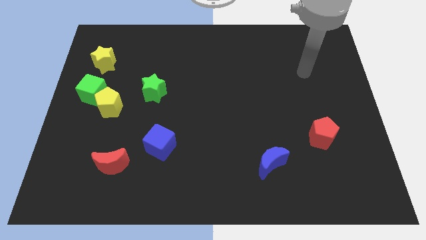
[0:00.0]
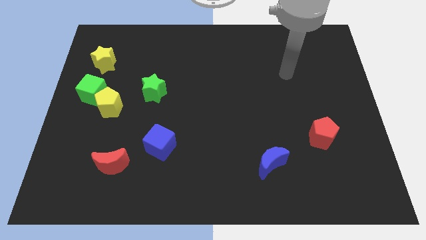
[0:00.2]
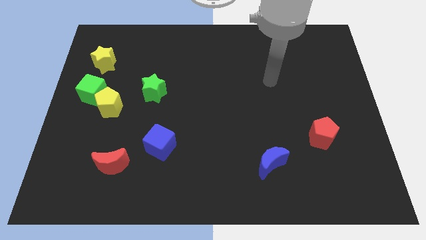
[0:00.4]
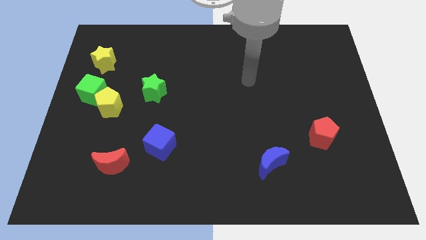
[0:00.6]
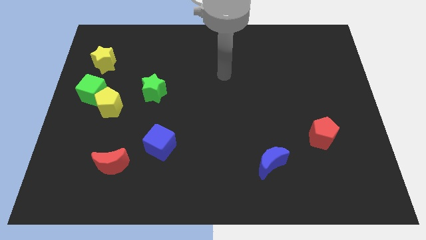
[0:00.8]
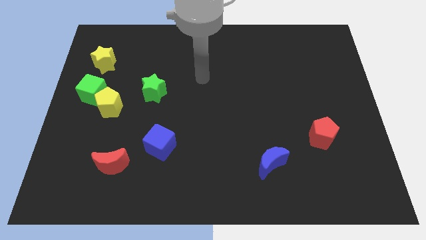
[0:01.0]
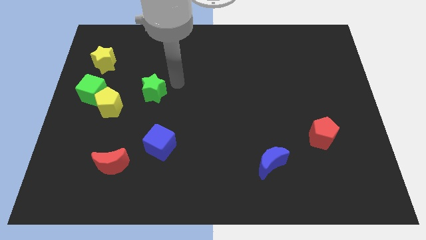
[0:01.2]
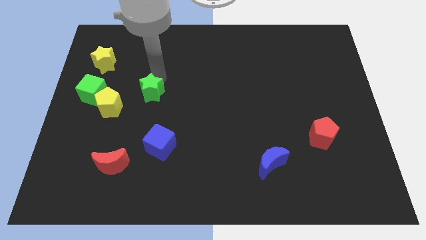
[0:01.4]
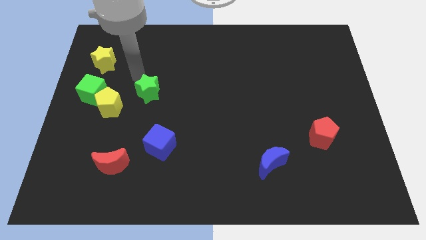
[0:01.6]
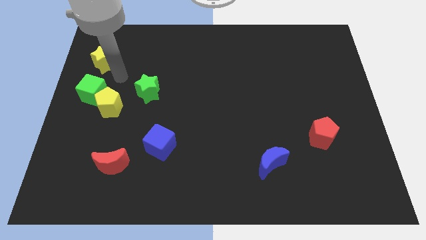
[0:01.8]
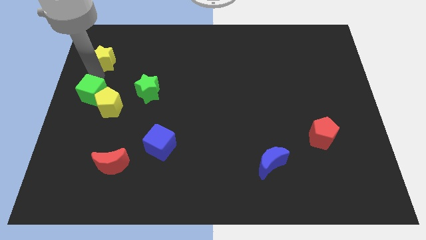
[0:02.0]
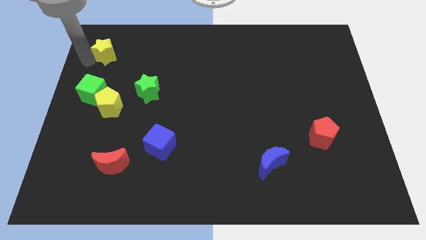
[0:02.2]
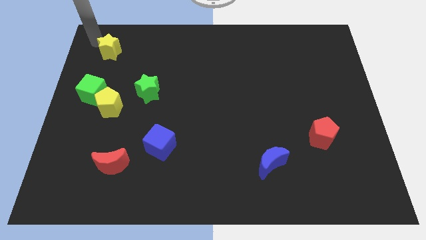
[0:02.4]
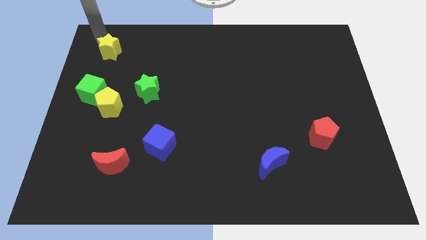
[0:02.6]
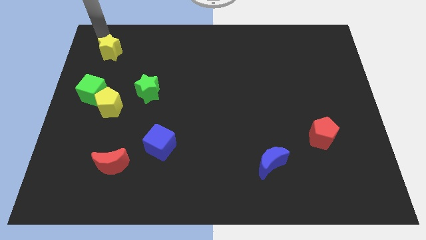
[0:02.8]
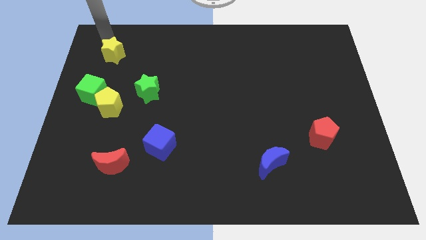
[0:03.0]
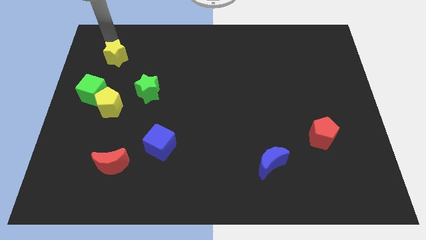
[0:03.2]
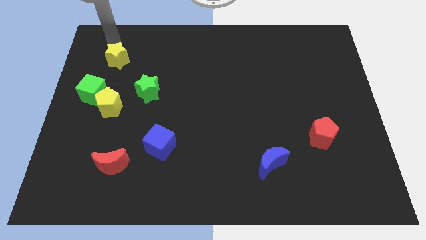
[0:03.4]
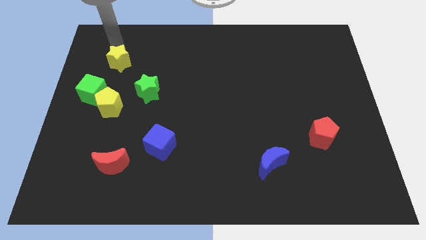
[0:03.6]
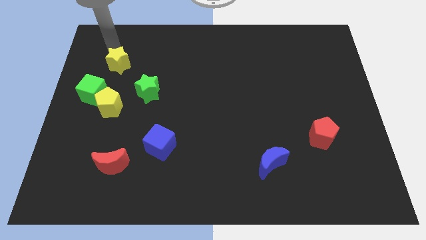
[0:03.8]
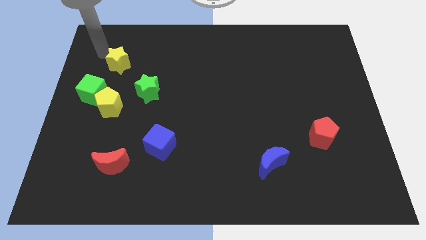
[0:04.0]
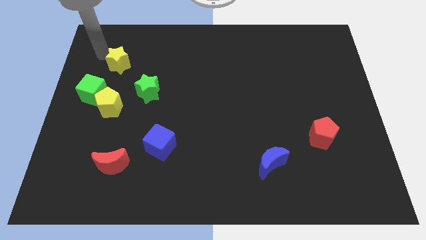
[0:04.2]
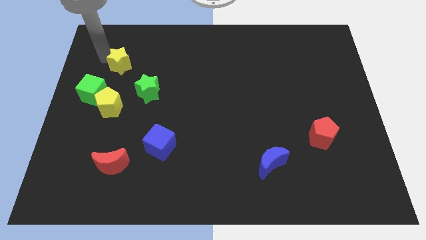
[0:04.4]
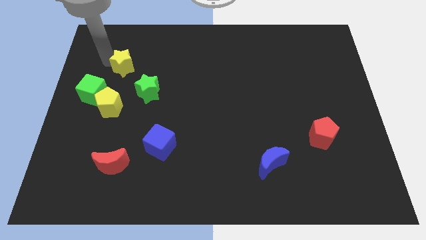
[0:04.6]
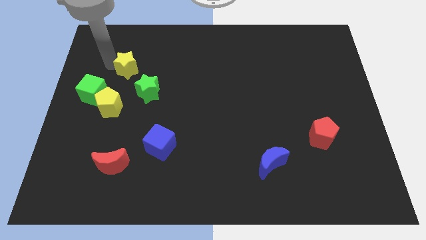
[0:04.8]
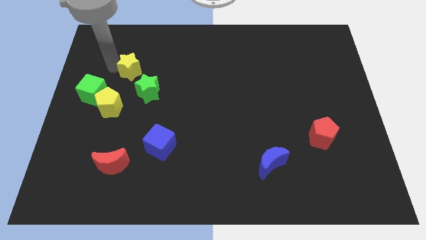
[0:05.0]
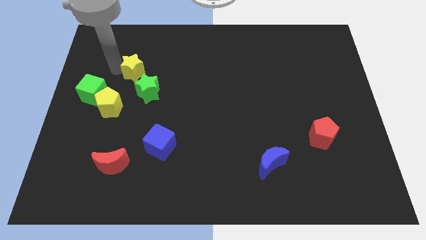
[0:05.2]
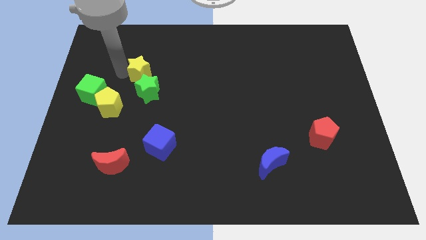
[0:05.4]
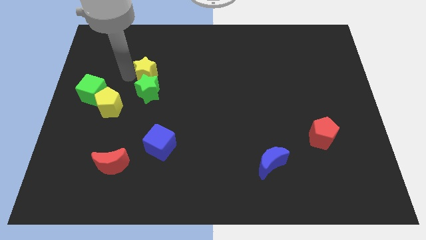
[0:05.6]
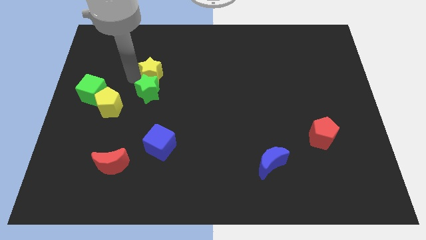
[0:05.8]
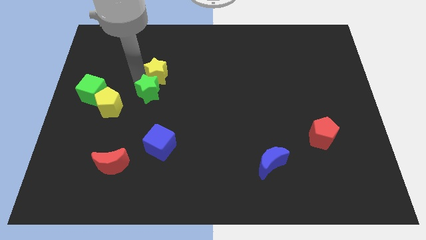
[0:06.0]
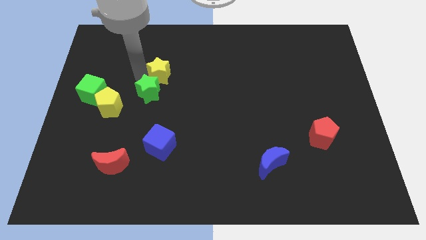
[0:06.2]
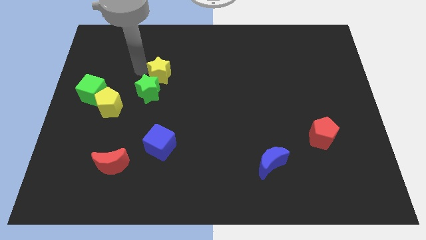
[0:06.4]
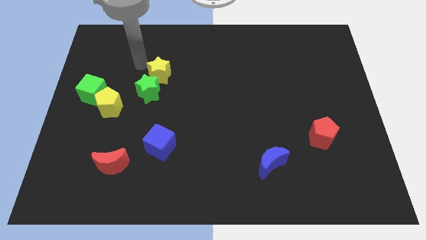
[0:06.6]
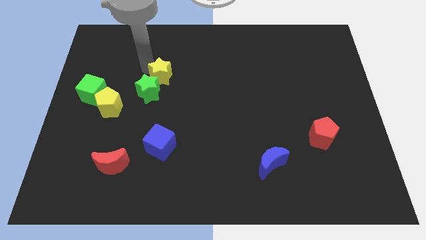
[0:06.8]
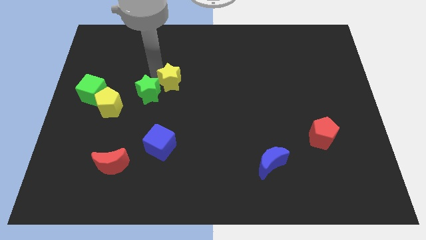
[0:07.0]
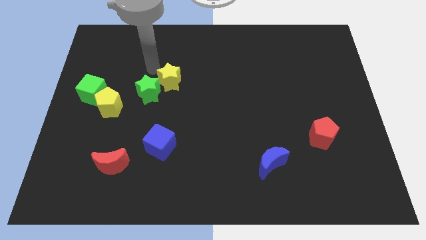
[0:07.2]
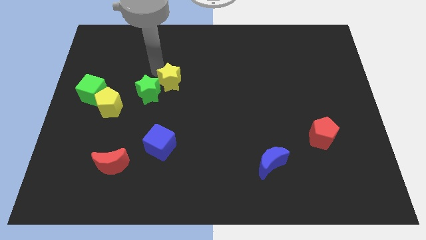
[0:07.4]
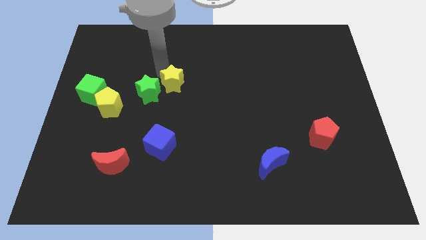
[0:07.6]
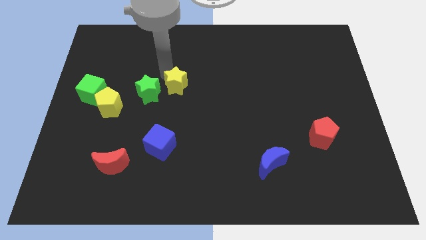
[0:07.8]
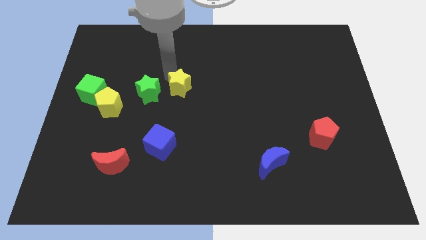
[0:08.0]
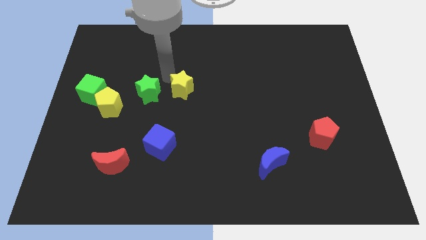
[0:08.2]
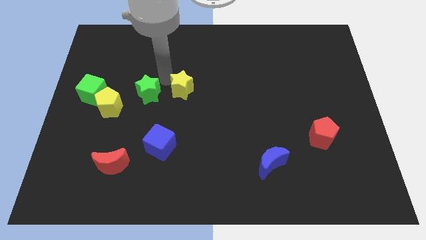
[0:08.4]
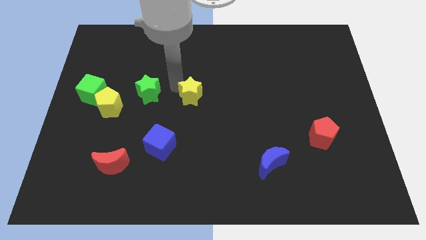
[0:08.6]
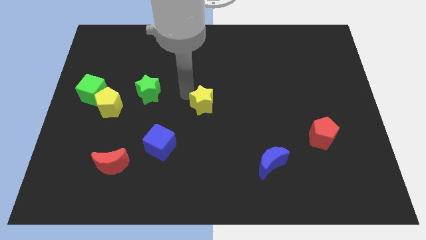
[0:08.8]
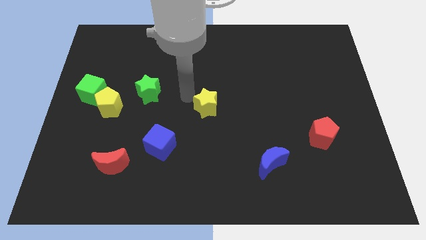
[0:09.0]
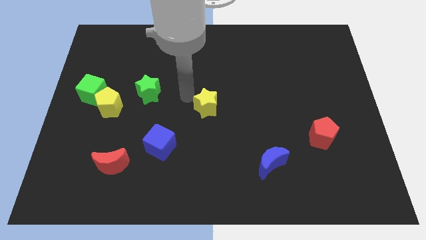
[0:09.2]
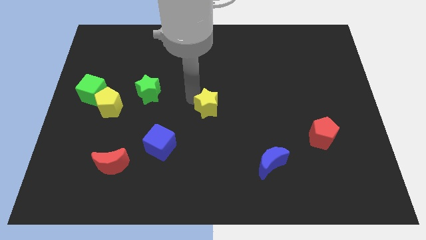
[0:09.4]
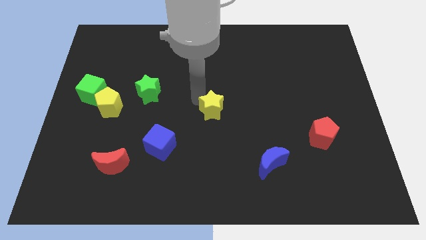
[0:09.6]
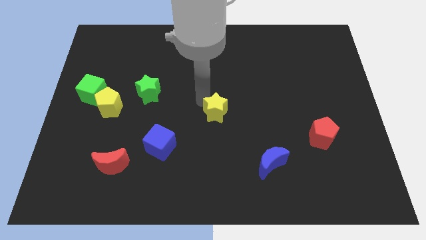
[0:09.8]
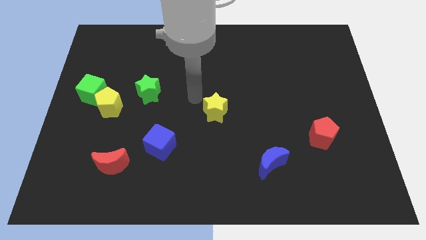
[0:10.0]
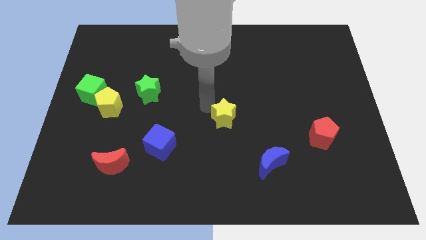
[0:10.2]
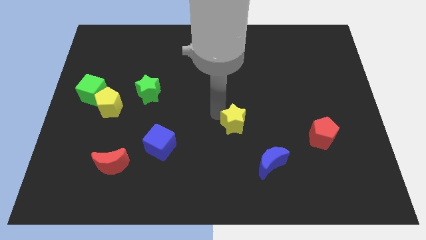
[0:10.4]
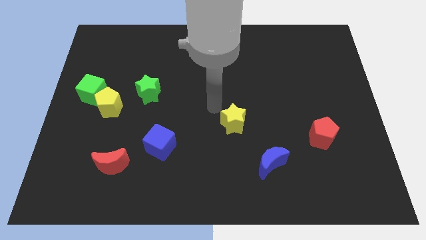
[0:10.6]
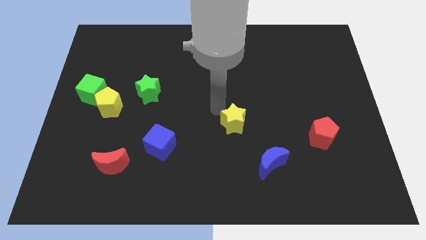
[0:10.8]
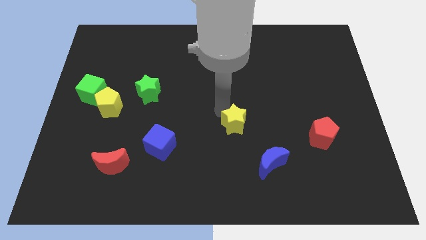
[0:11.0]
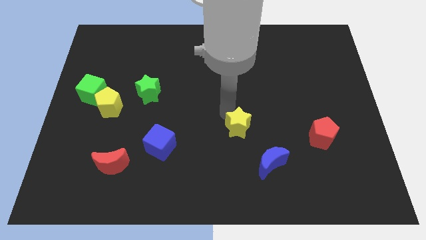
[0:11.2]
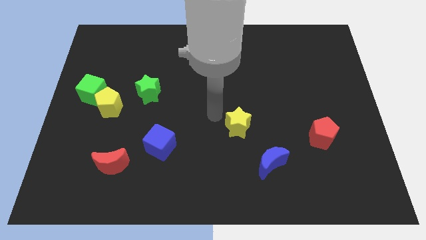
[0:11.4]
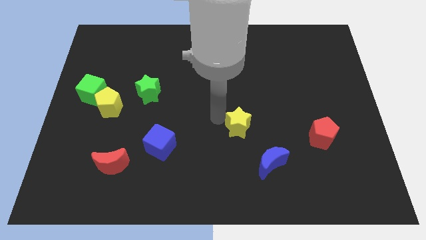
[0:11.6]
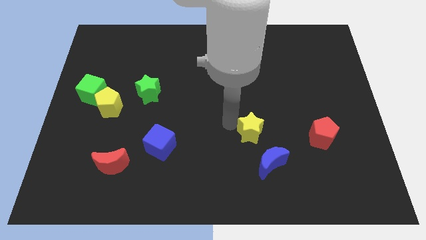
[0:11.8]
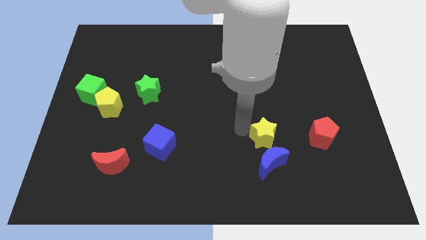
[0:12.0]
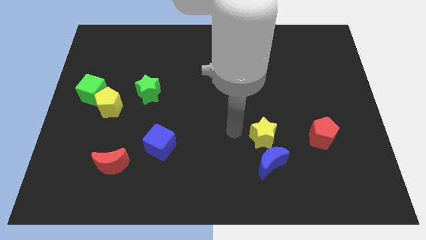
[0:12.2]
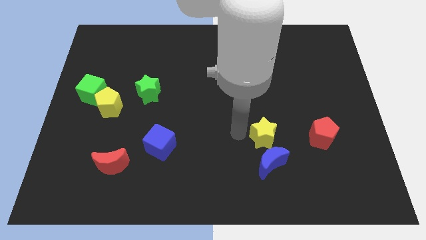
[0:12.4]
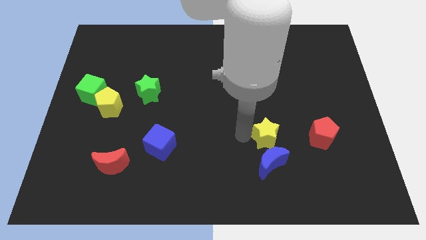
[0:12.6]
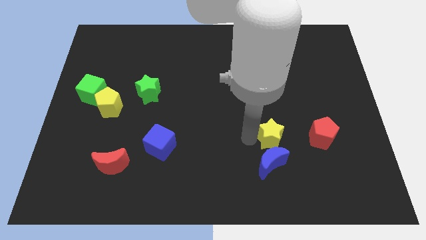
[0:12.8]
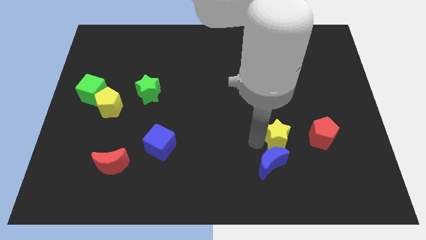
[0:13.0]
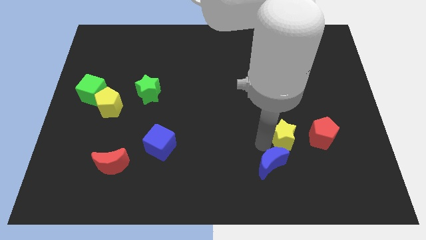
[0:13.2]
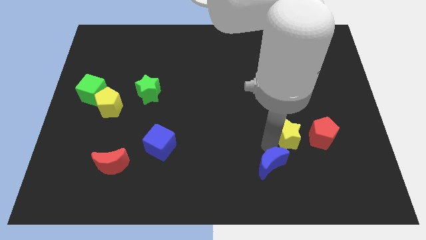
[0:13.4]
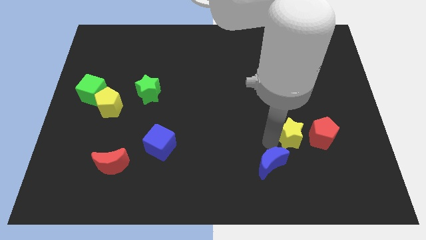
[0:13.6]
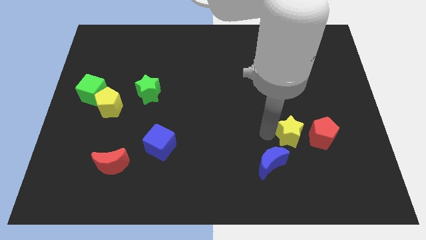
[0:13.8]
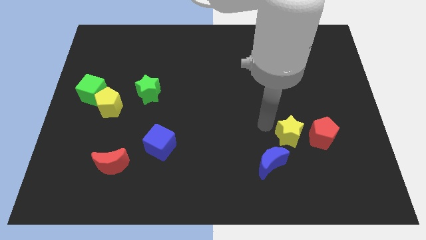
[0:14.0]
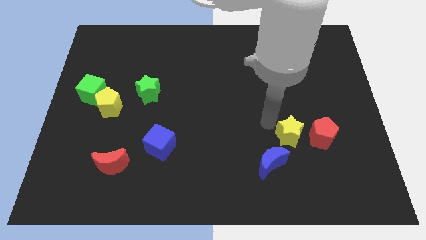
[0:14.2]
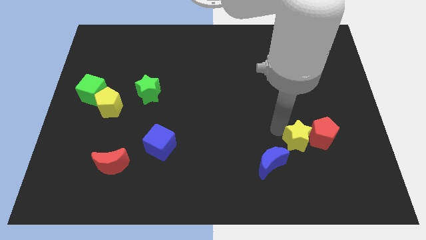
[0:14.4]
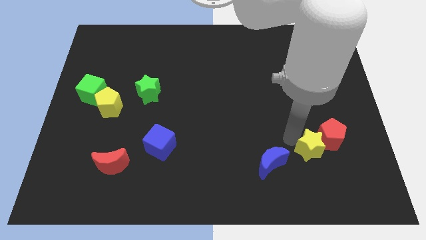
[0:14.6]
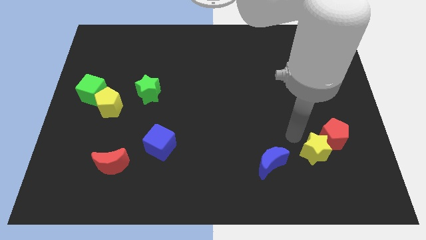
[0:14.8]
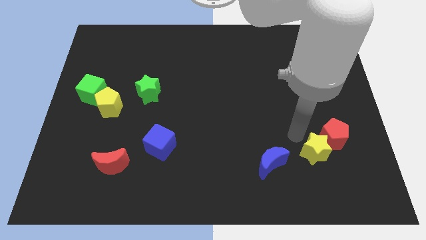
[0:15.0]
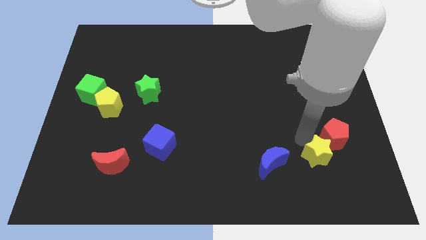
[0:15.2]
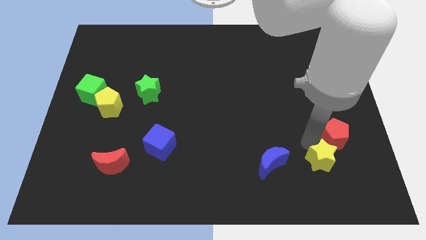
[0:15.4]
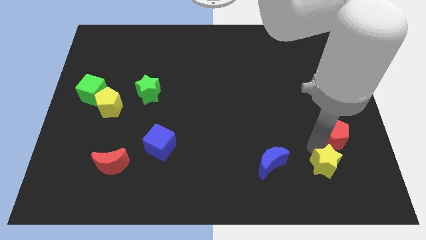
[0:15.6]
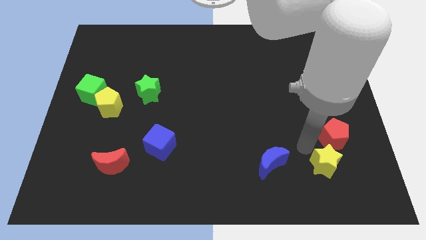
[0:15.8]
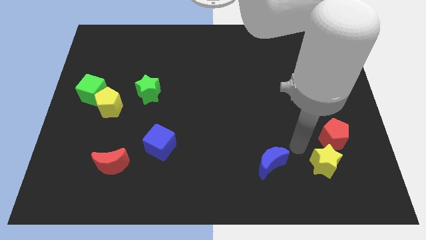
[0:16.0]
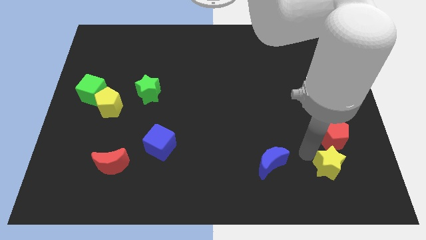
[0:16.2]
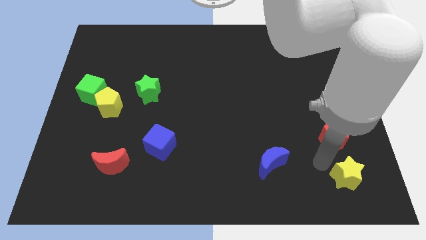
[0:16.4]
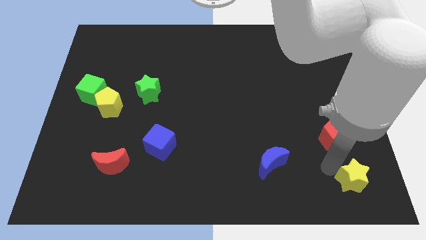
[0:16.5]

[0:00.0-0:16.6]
put the yellow star to the lower right corner
